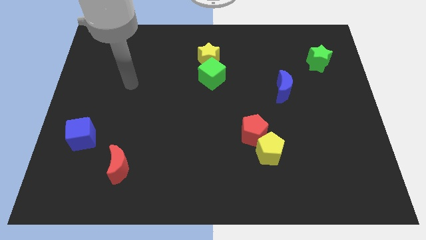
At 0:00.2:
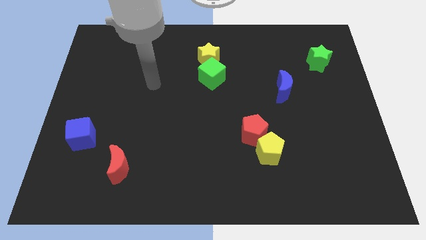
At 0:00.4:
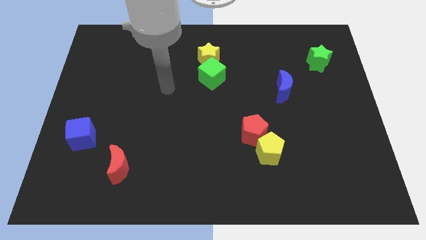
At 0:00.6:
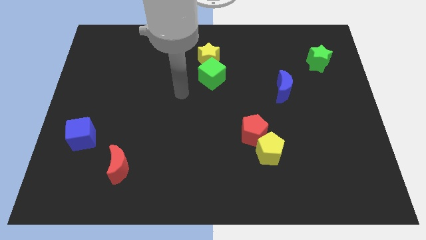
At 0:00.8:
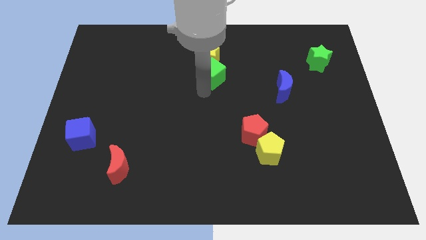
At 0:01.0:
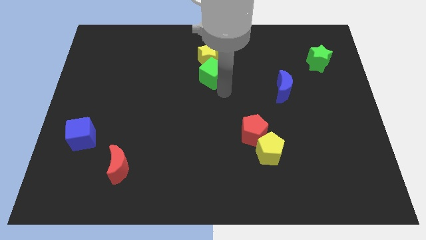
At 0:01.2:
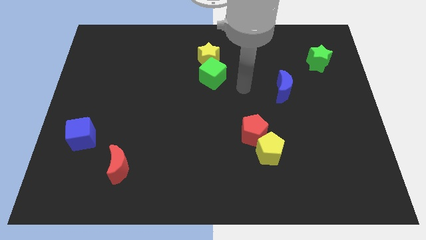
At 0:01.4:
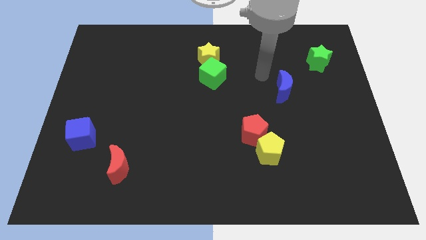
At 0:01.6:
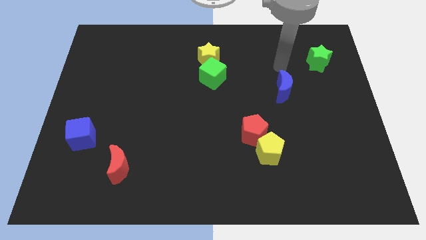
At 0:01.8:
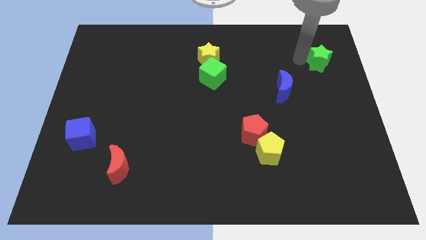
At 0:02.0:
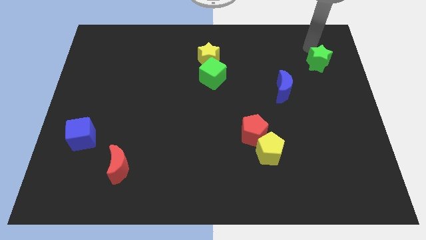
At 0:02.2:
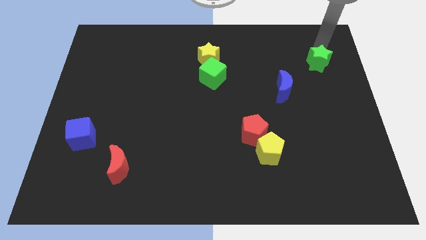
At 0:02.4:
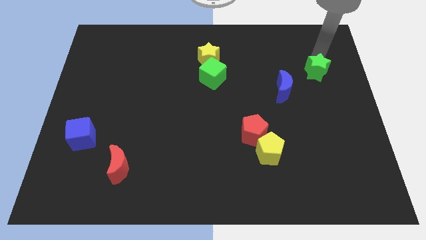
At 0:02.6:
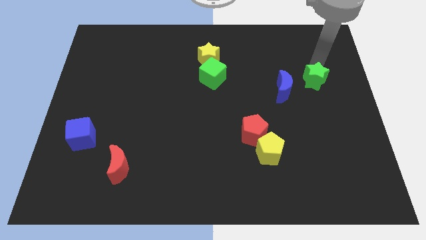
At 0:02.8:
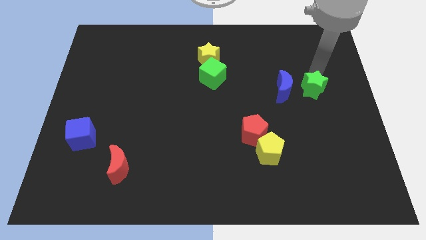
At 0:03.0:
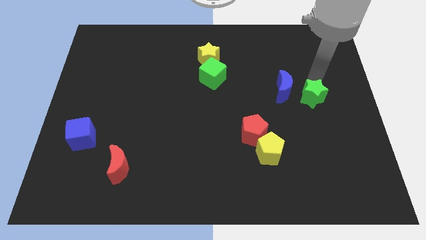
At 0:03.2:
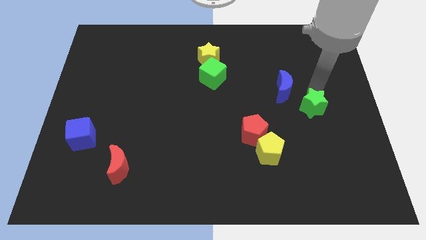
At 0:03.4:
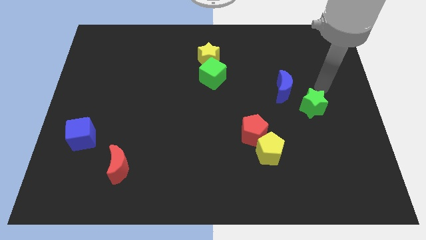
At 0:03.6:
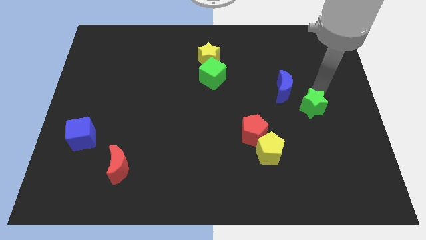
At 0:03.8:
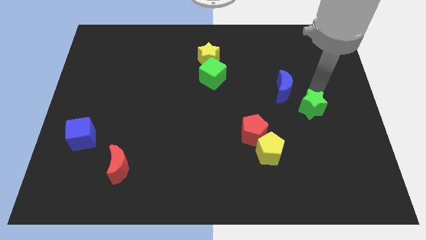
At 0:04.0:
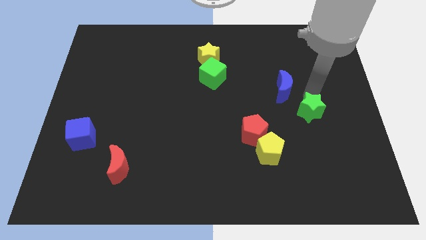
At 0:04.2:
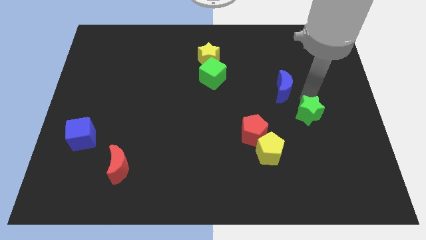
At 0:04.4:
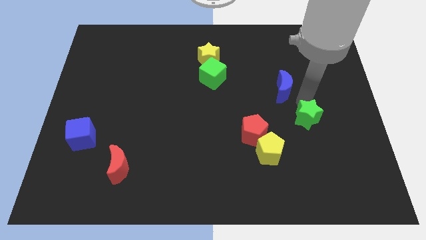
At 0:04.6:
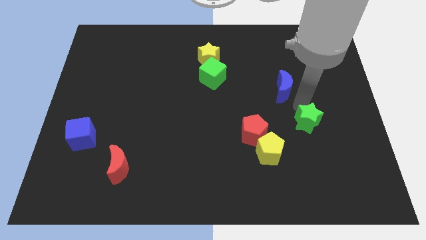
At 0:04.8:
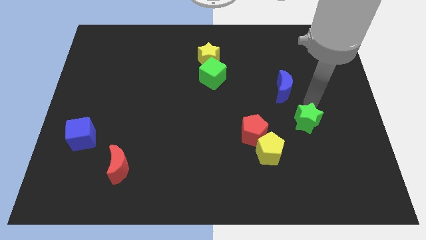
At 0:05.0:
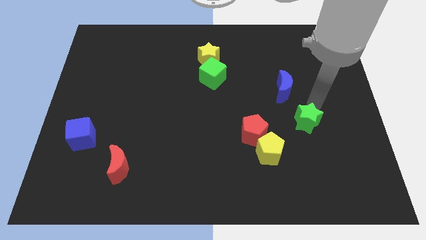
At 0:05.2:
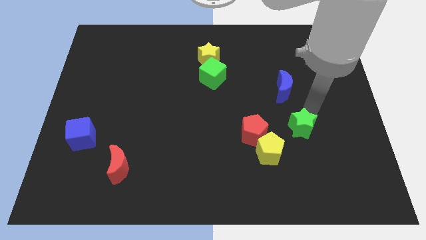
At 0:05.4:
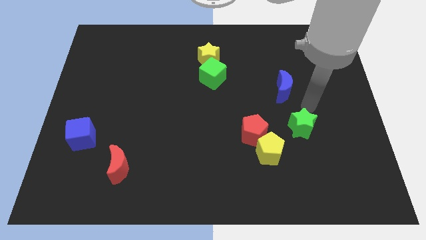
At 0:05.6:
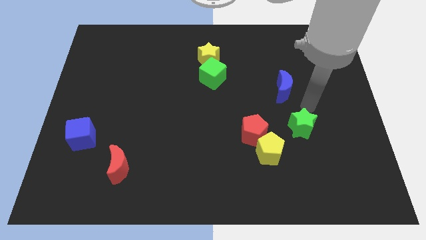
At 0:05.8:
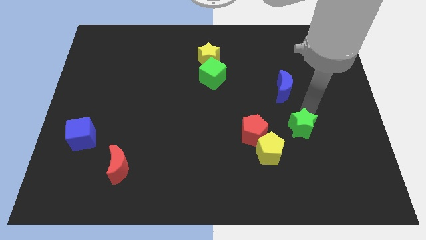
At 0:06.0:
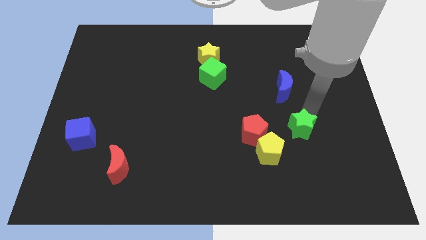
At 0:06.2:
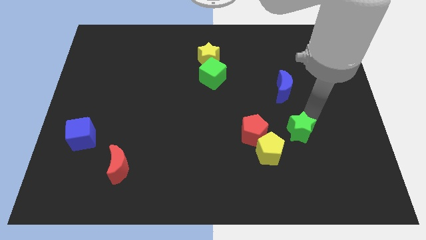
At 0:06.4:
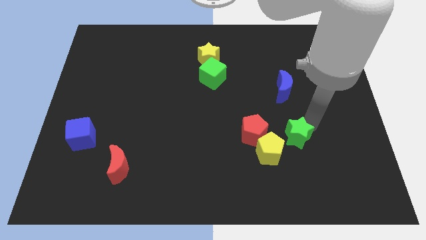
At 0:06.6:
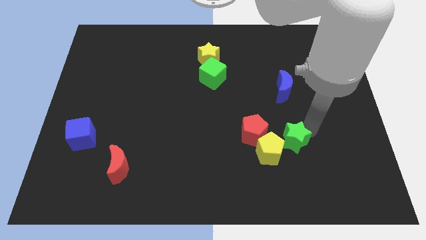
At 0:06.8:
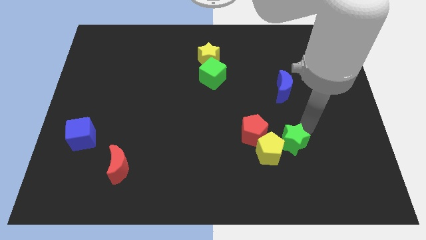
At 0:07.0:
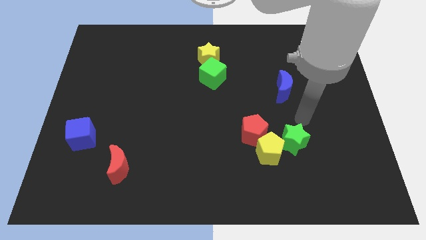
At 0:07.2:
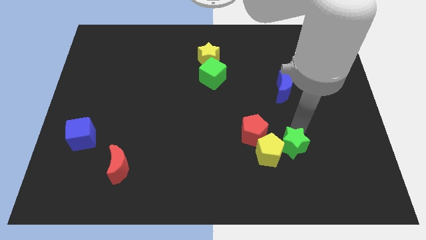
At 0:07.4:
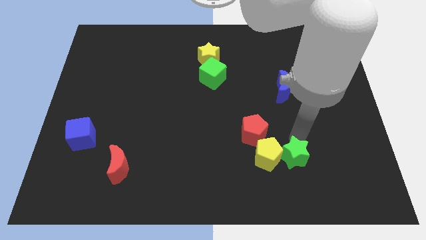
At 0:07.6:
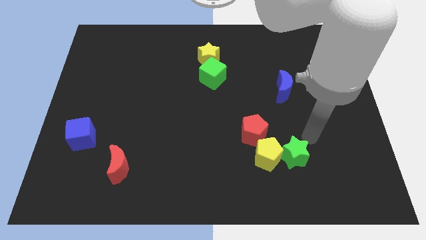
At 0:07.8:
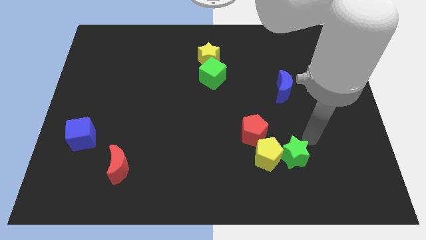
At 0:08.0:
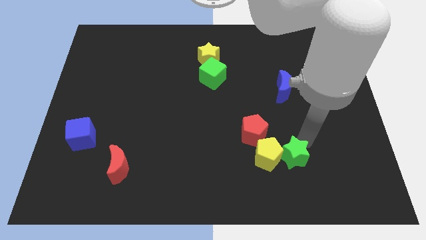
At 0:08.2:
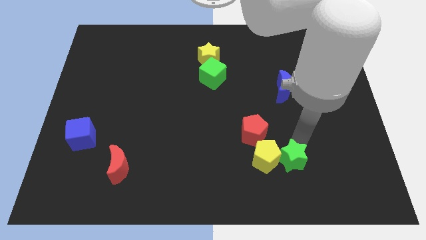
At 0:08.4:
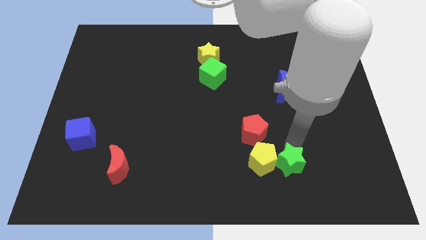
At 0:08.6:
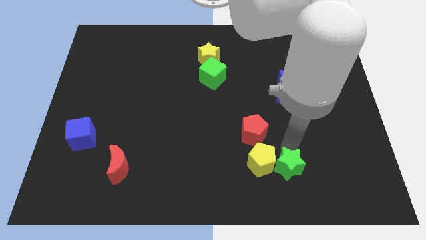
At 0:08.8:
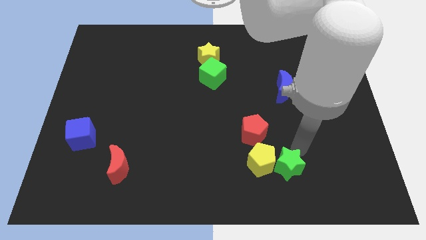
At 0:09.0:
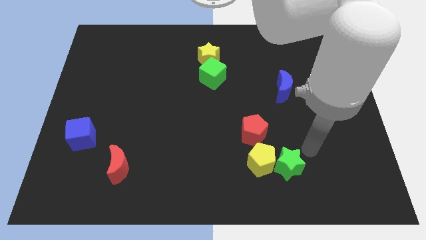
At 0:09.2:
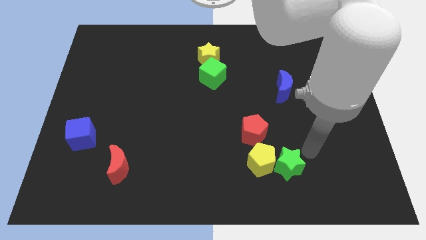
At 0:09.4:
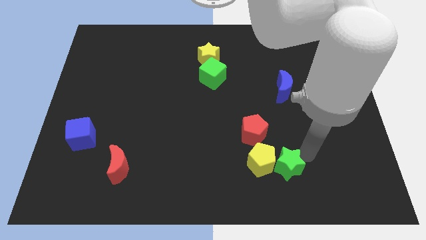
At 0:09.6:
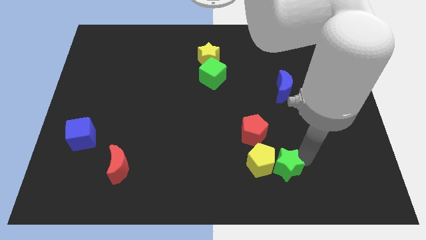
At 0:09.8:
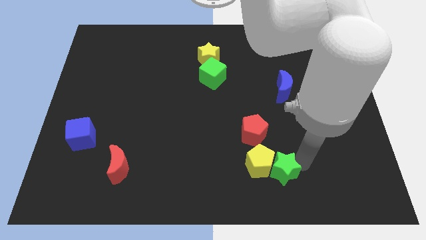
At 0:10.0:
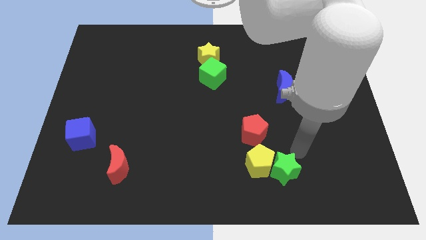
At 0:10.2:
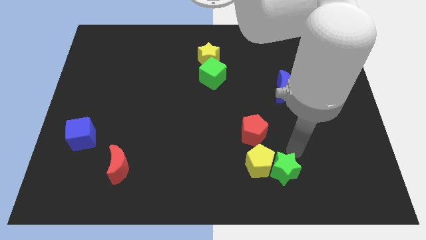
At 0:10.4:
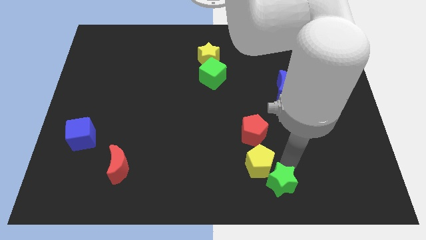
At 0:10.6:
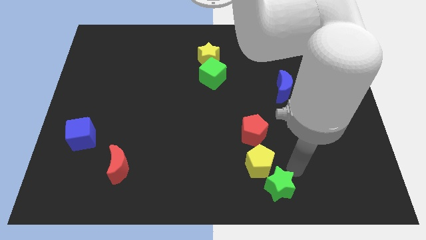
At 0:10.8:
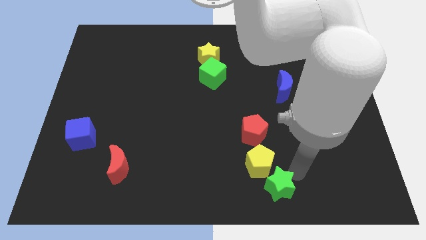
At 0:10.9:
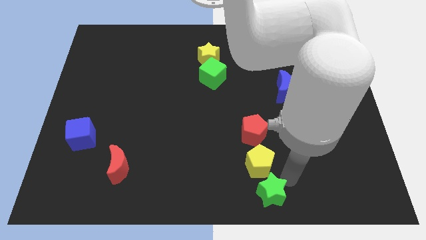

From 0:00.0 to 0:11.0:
move the green star to the bottom

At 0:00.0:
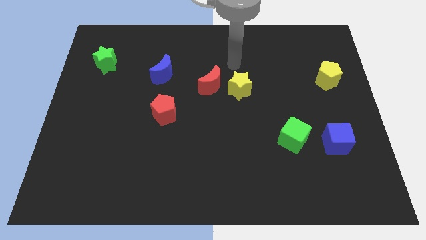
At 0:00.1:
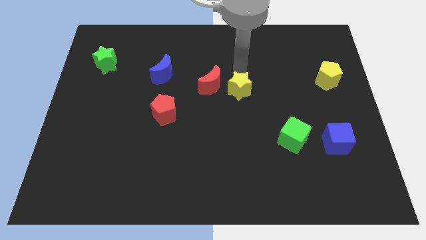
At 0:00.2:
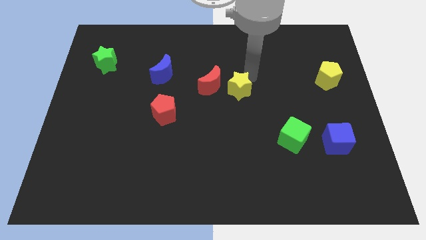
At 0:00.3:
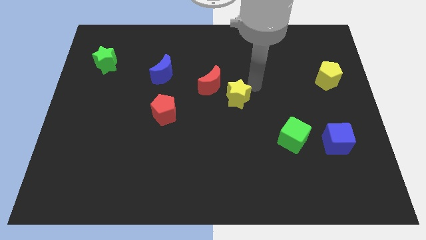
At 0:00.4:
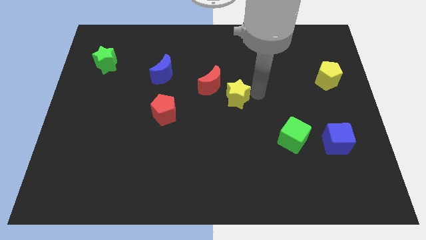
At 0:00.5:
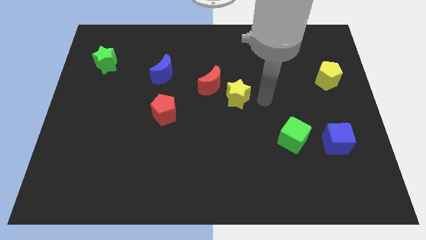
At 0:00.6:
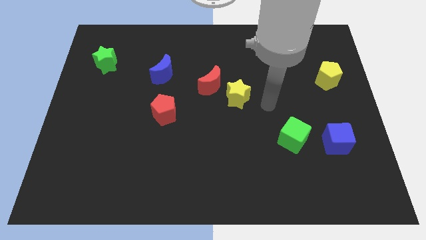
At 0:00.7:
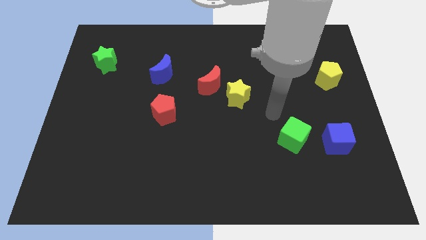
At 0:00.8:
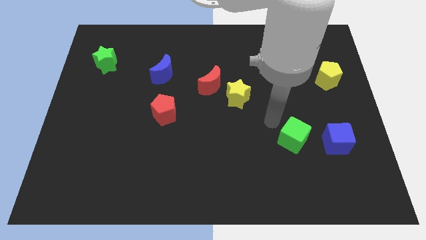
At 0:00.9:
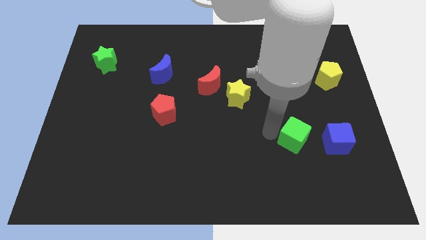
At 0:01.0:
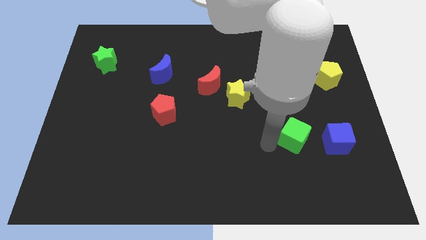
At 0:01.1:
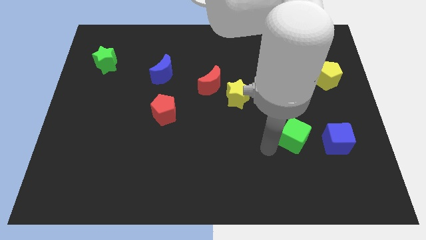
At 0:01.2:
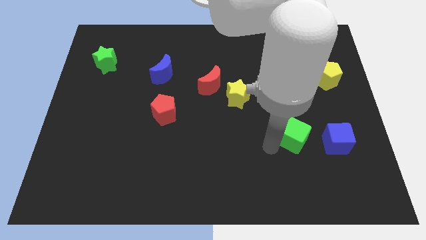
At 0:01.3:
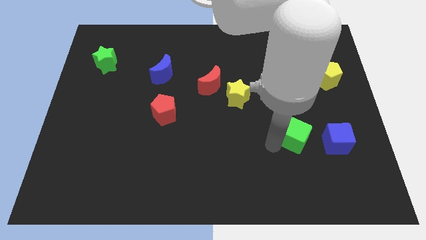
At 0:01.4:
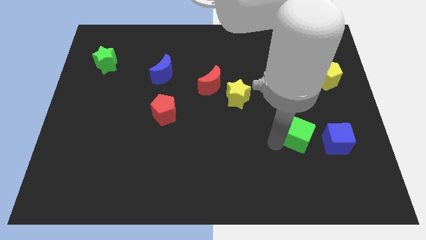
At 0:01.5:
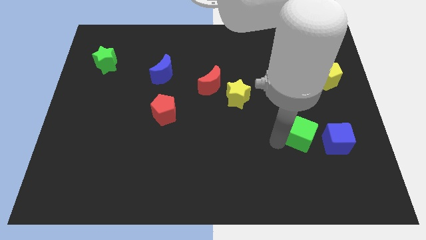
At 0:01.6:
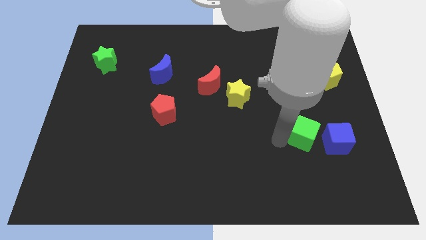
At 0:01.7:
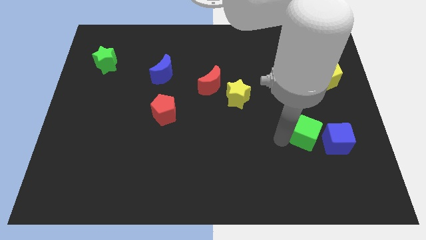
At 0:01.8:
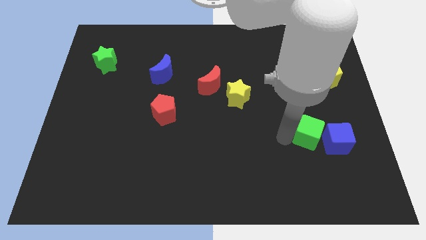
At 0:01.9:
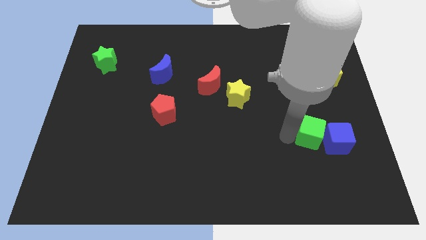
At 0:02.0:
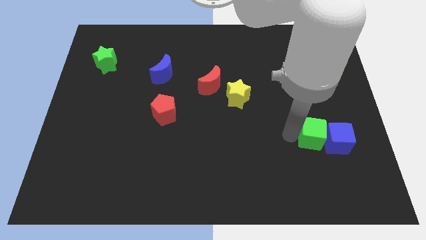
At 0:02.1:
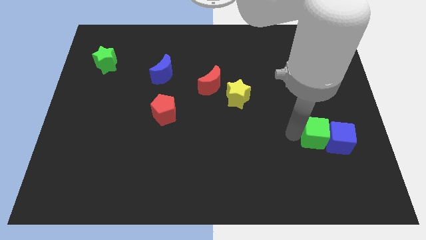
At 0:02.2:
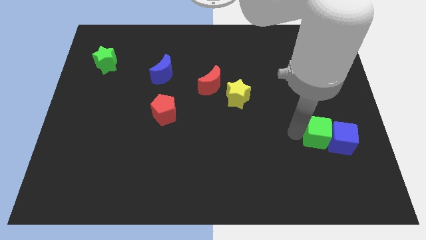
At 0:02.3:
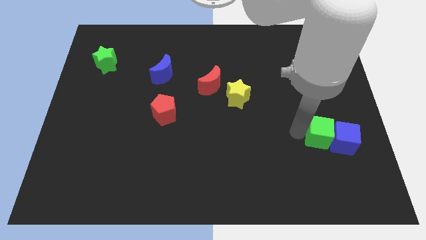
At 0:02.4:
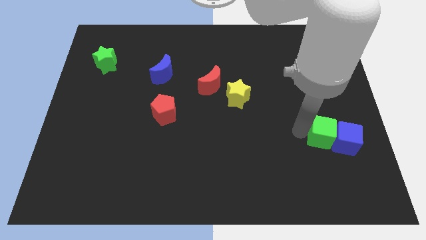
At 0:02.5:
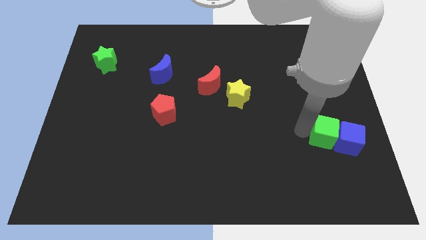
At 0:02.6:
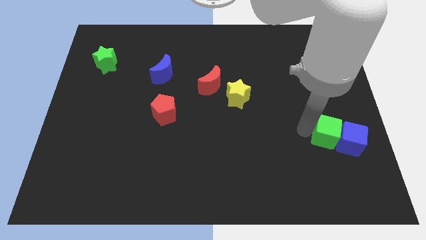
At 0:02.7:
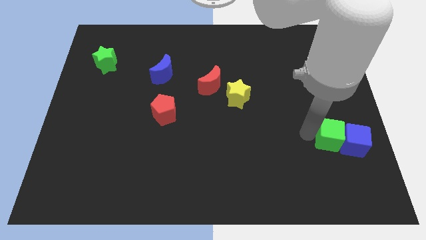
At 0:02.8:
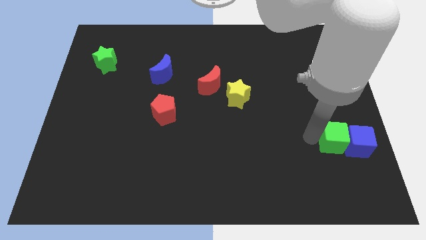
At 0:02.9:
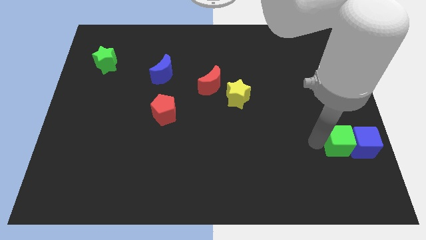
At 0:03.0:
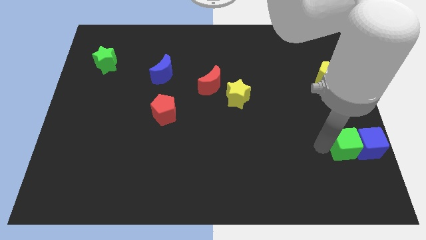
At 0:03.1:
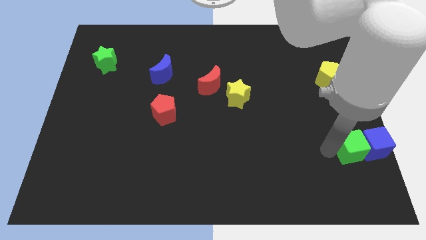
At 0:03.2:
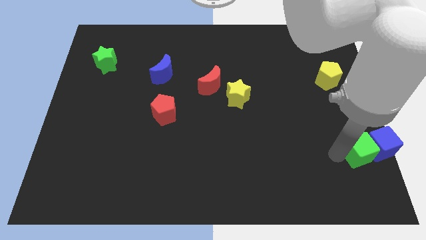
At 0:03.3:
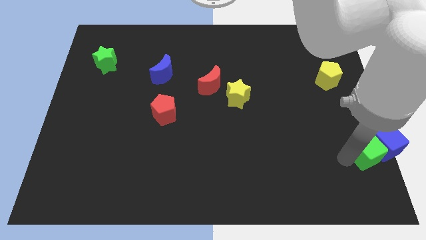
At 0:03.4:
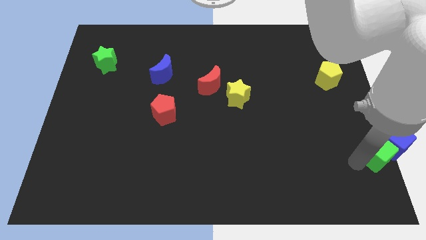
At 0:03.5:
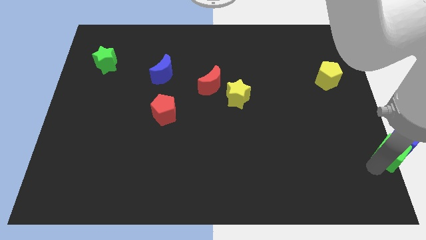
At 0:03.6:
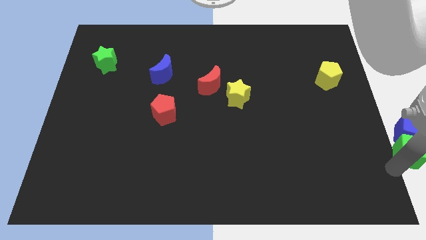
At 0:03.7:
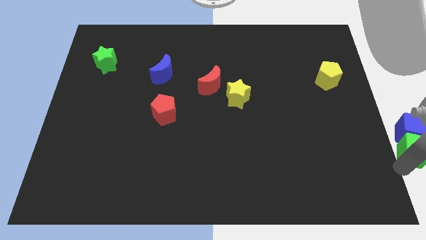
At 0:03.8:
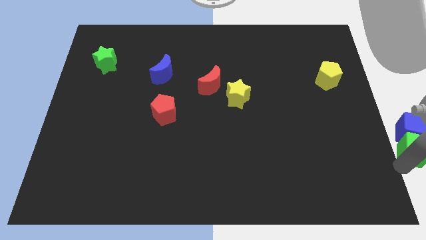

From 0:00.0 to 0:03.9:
put the green cube to the right side of the board
